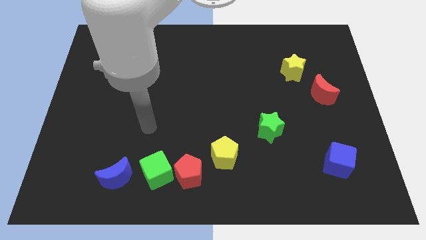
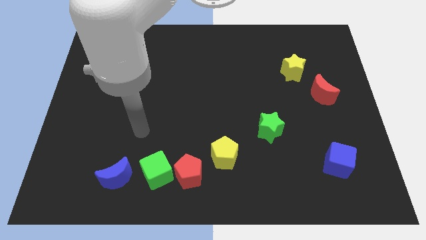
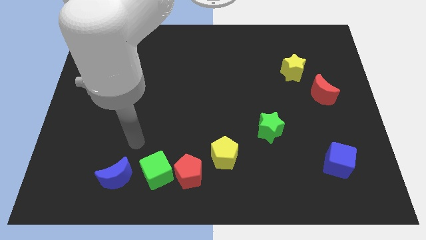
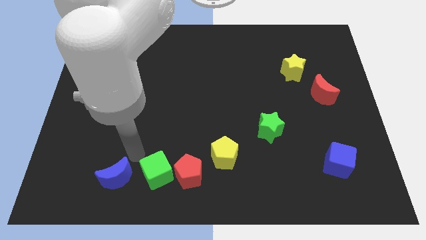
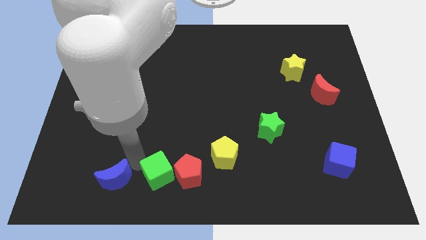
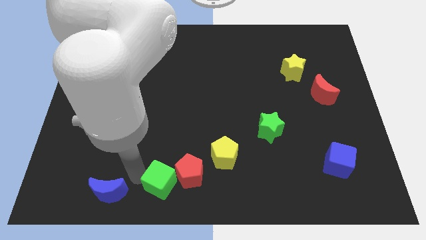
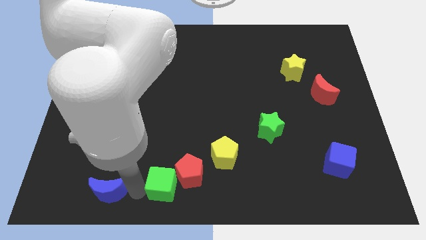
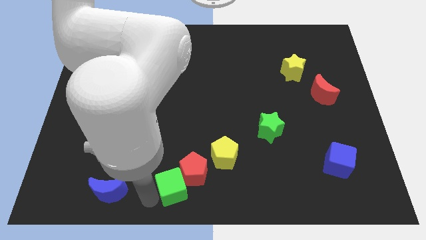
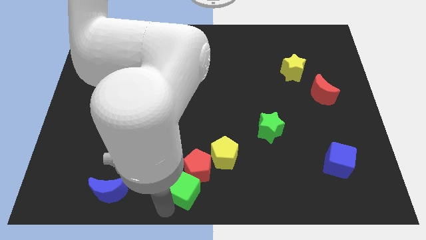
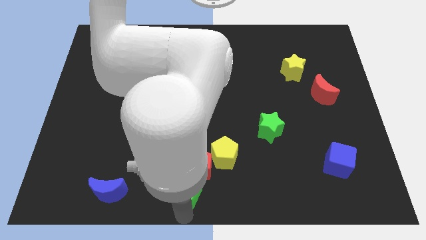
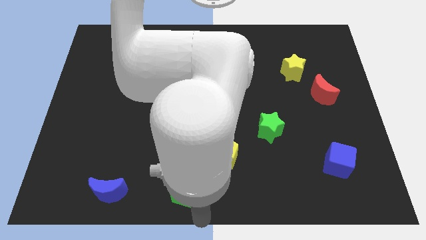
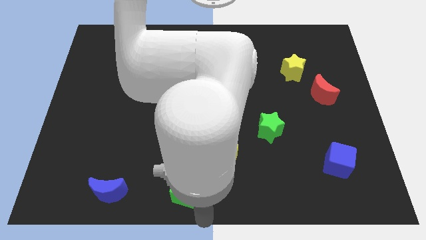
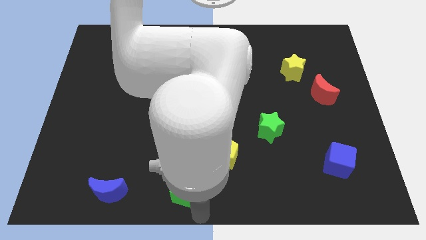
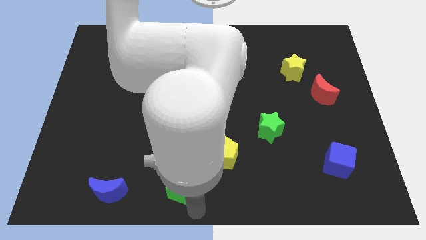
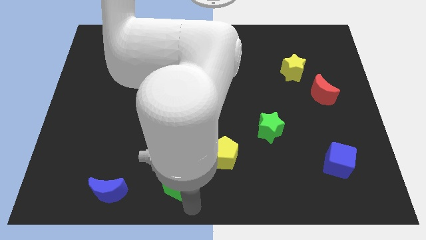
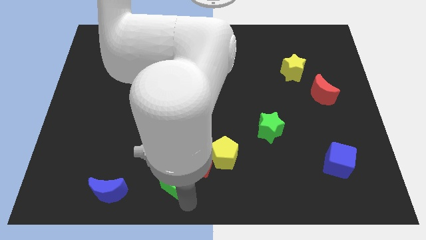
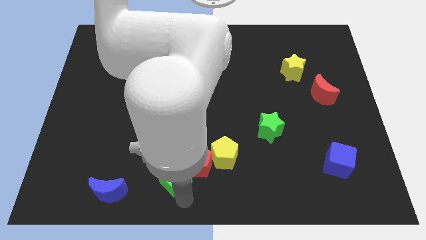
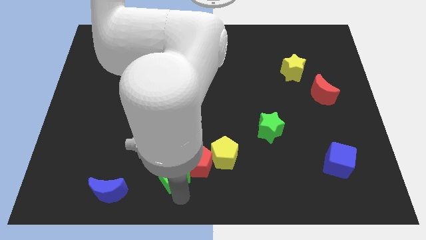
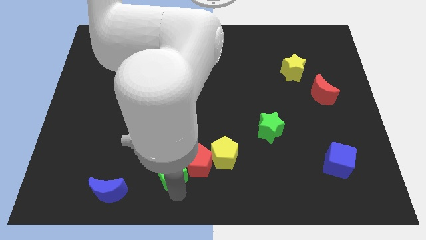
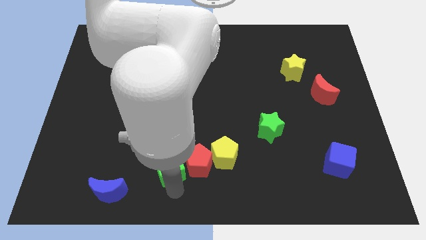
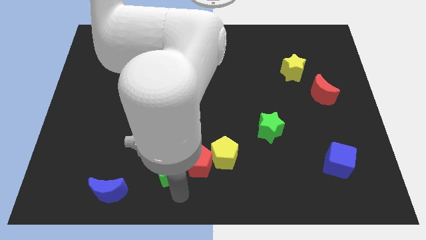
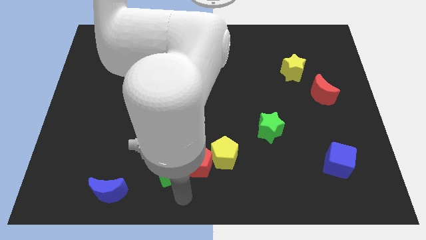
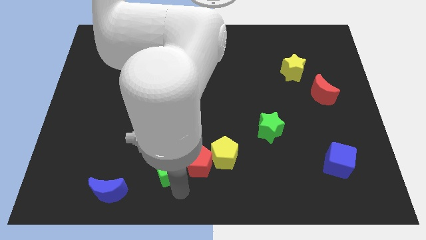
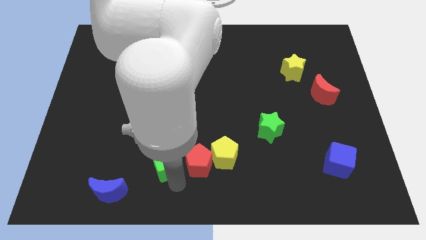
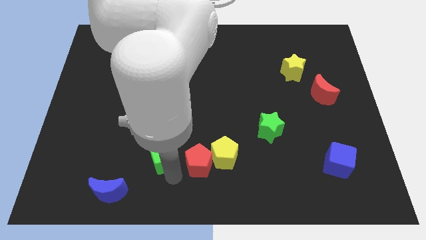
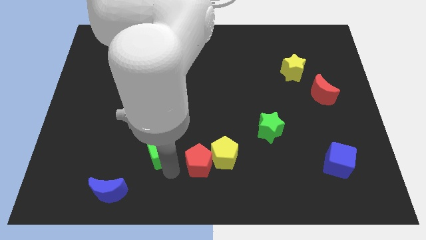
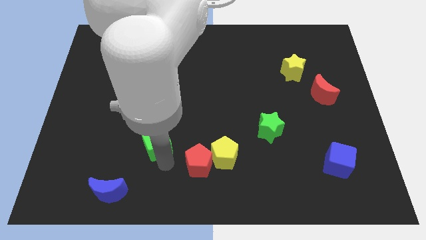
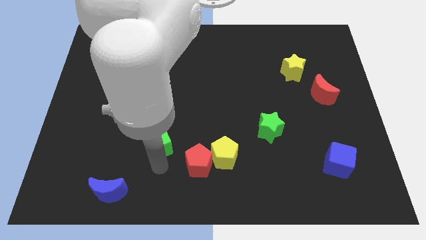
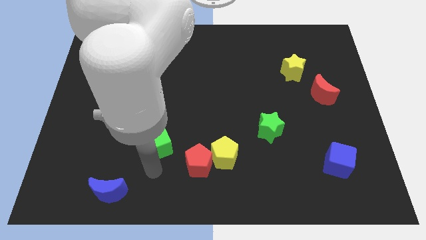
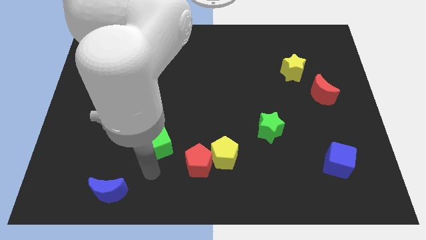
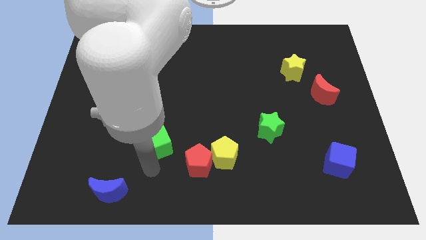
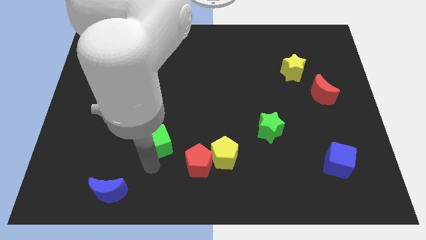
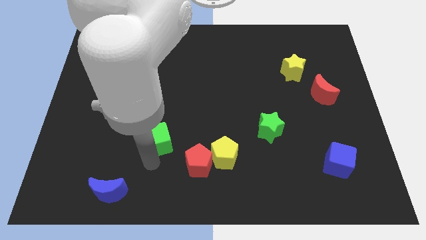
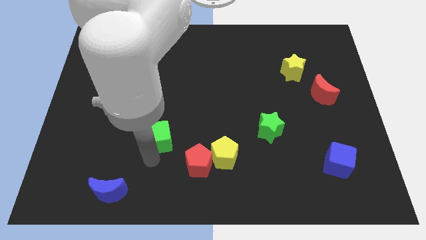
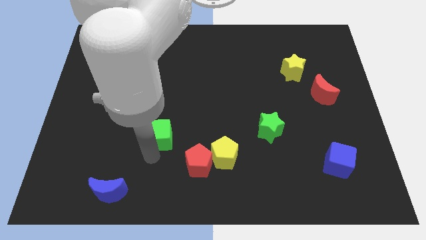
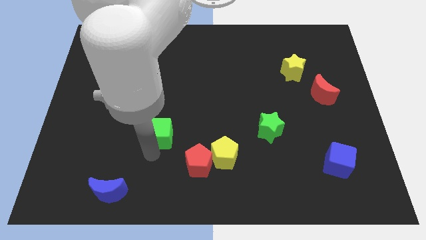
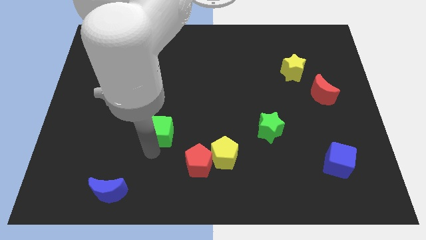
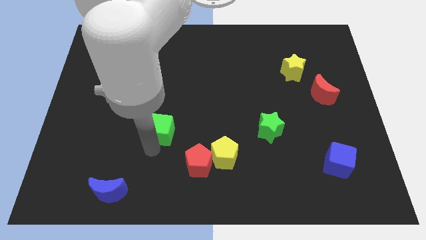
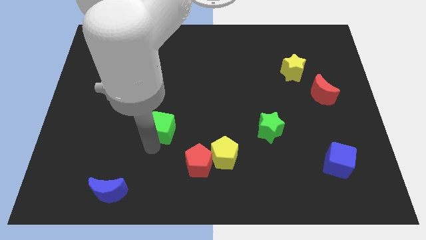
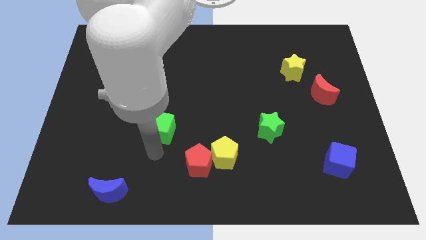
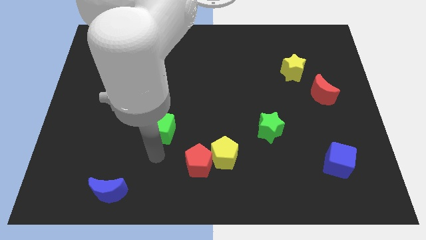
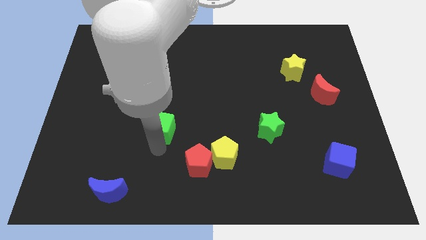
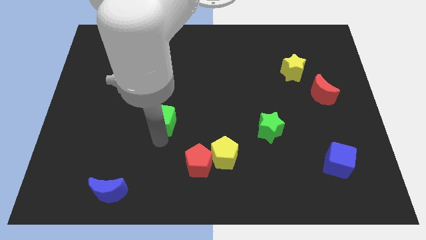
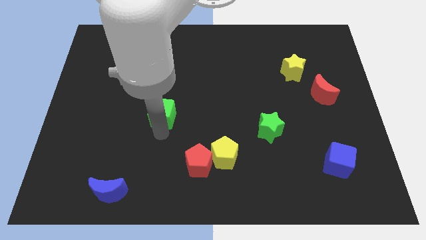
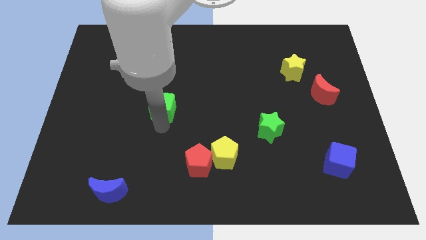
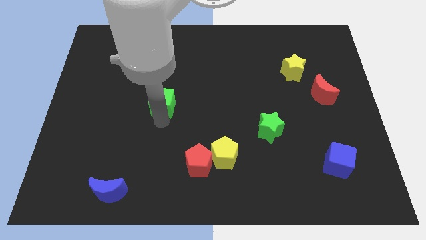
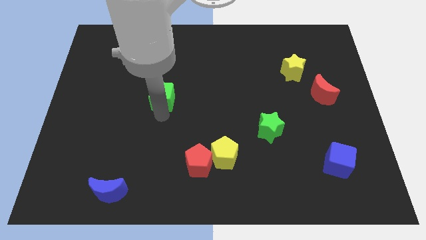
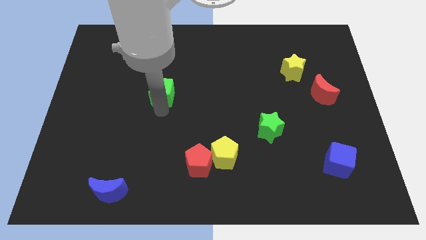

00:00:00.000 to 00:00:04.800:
slide the green cube upwards

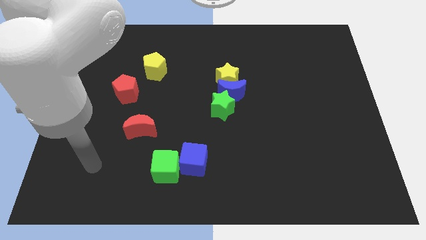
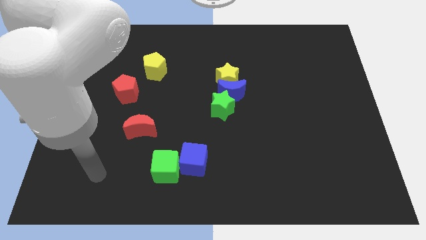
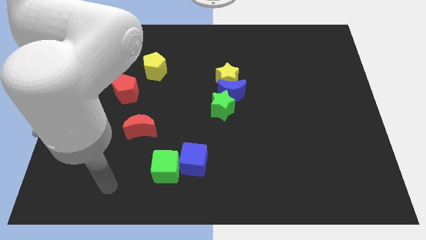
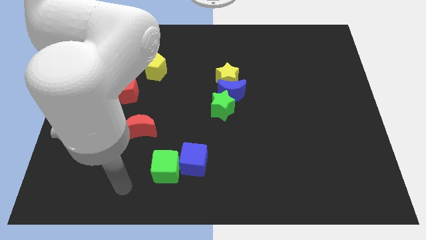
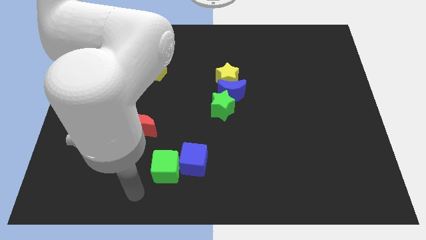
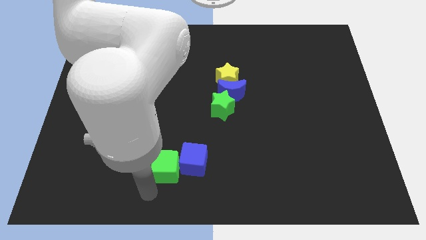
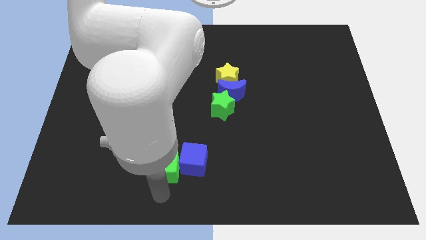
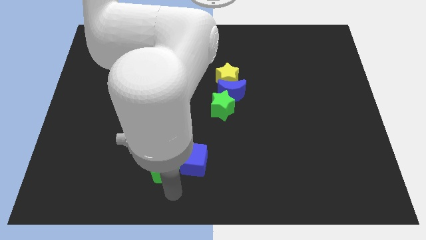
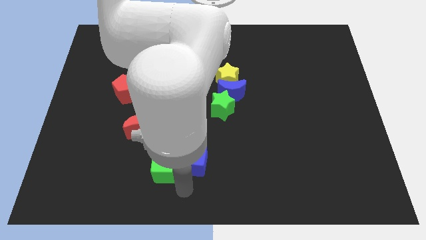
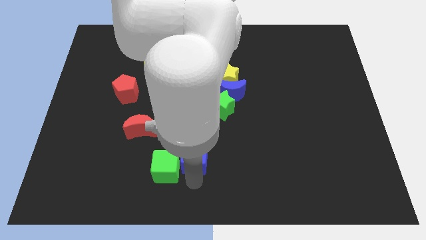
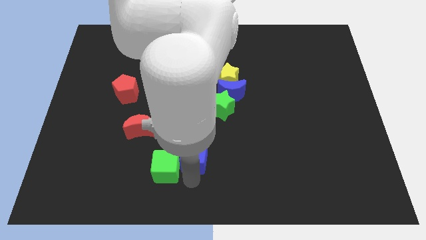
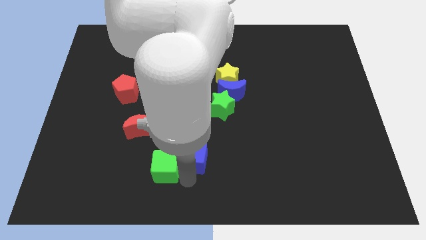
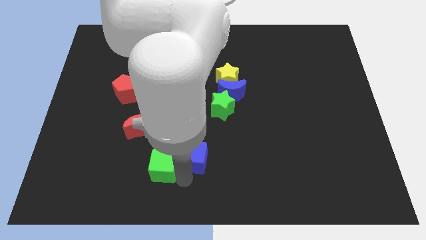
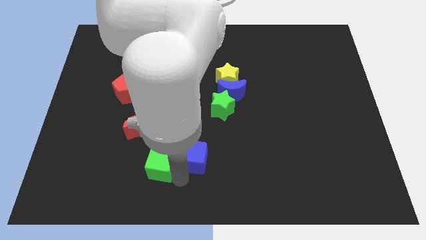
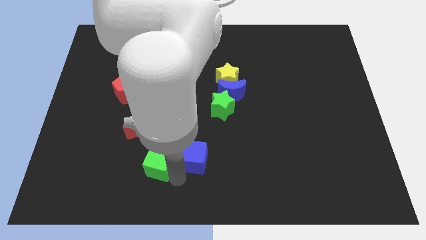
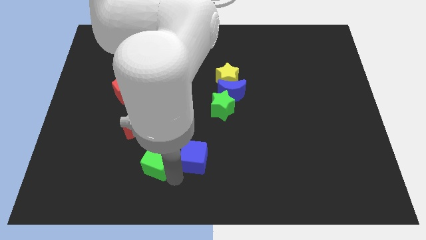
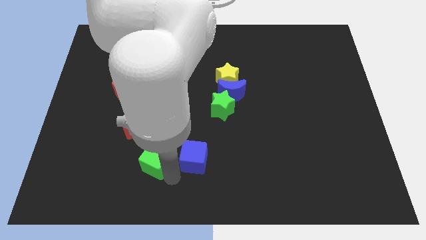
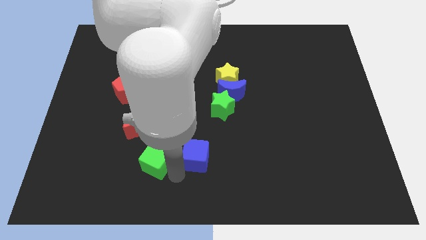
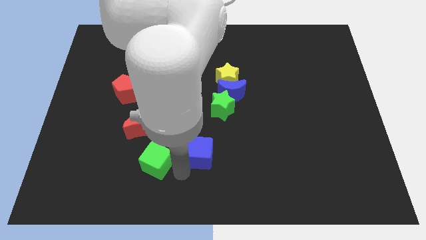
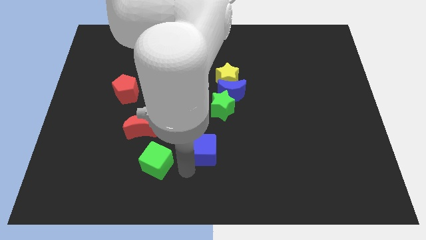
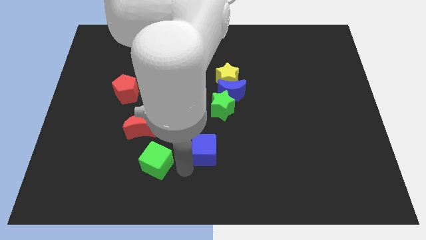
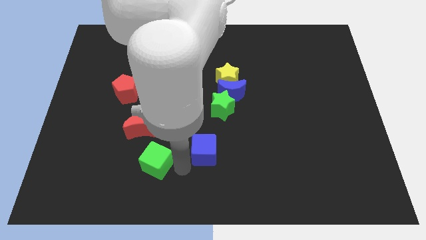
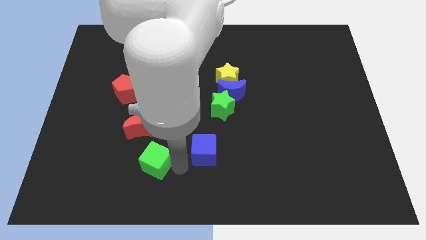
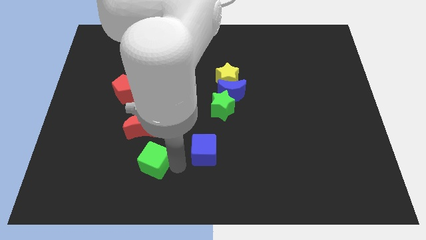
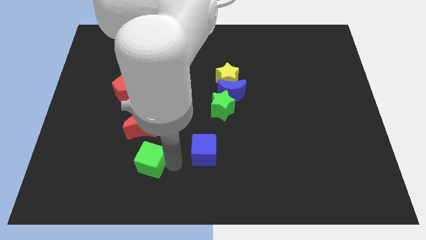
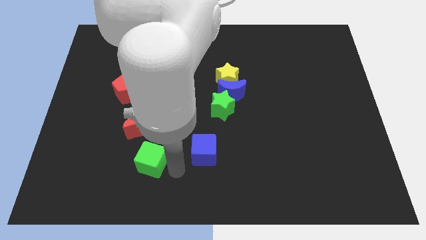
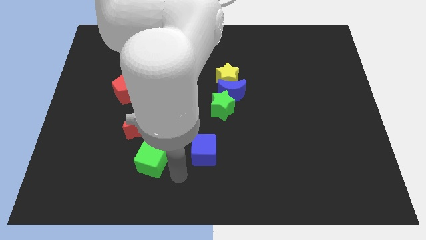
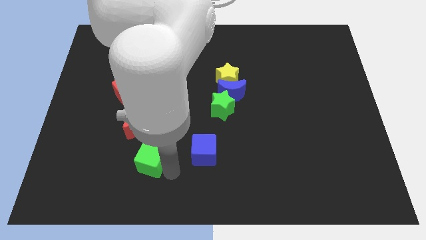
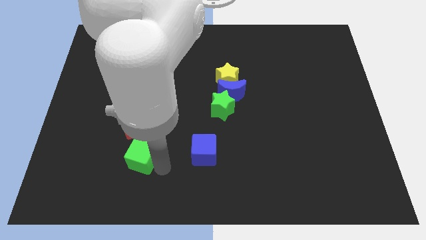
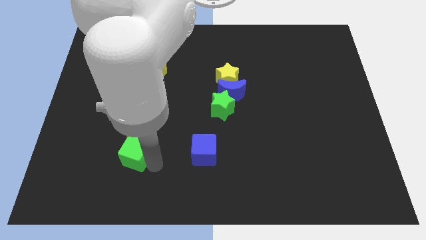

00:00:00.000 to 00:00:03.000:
slightly move the green cube diagonally up and to the left
